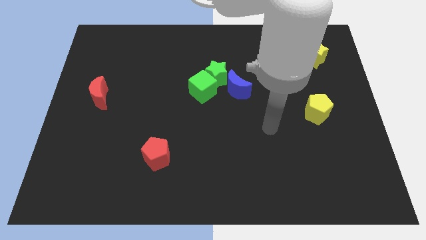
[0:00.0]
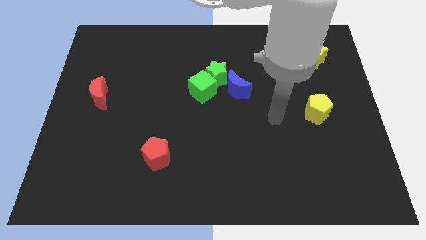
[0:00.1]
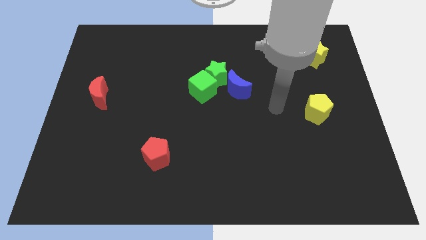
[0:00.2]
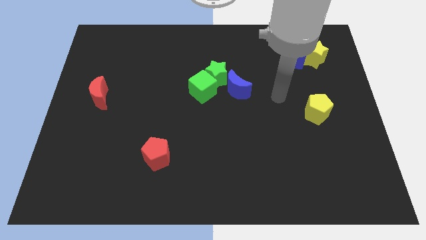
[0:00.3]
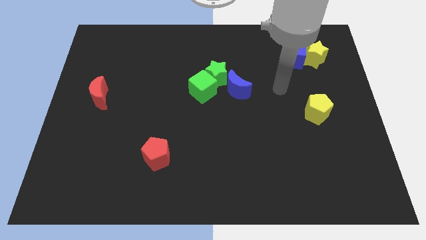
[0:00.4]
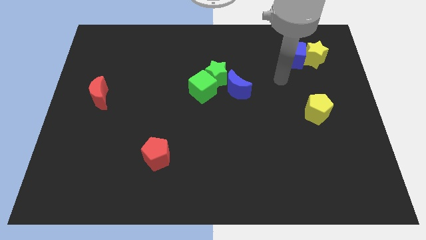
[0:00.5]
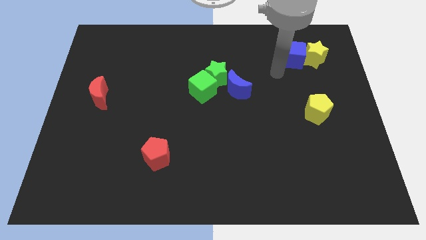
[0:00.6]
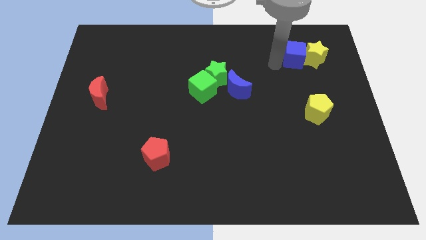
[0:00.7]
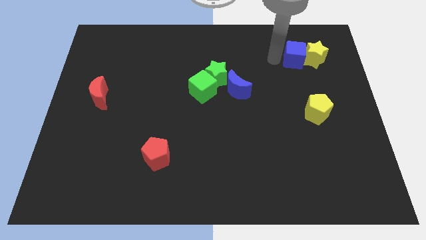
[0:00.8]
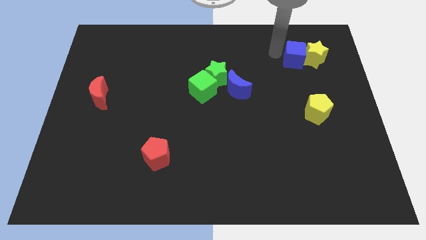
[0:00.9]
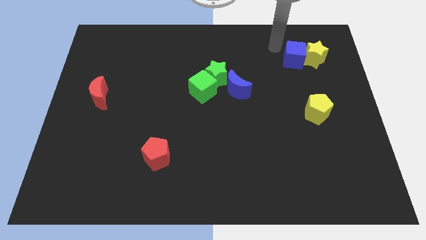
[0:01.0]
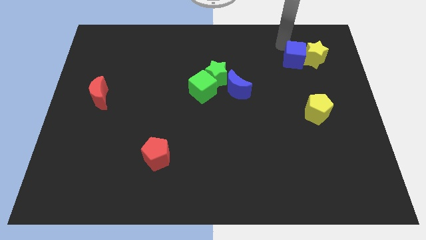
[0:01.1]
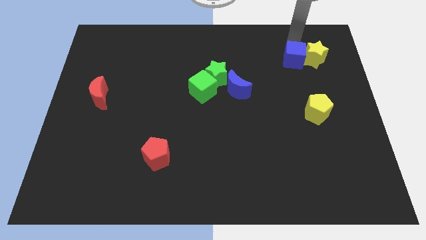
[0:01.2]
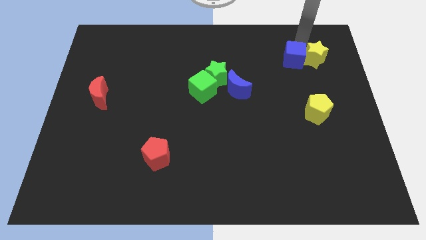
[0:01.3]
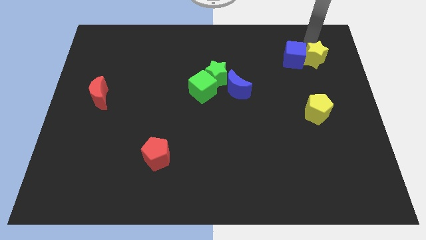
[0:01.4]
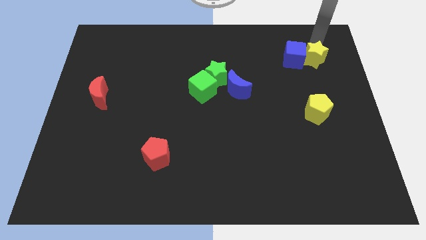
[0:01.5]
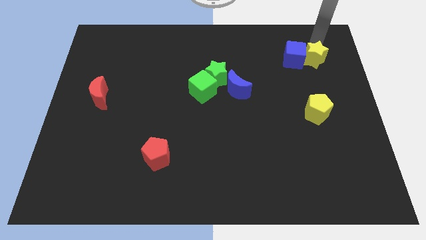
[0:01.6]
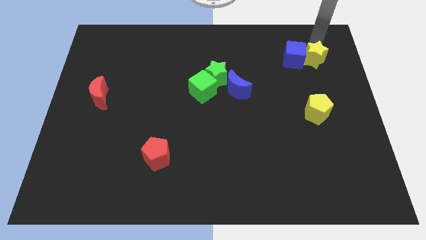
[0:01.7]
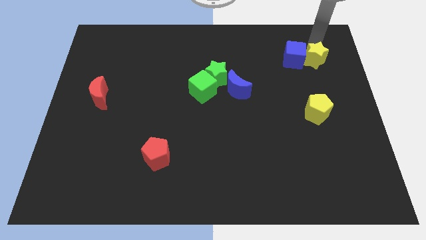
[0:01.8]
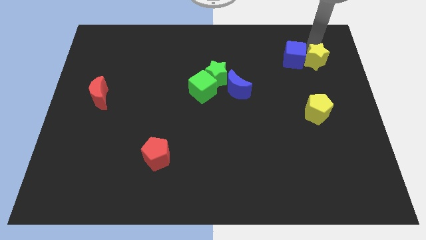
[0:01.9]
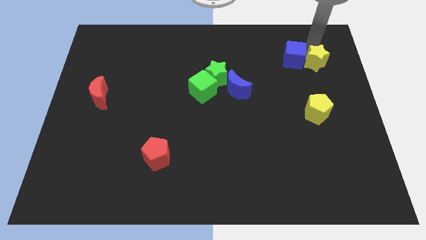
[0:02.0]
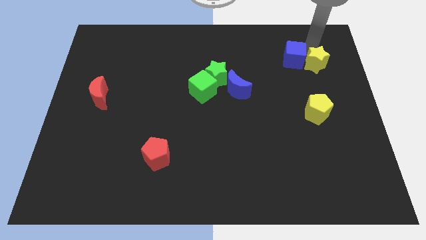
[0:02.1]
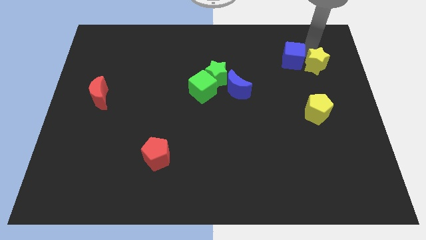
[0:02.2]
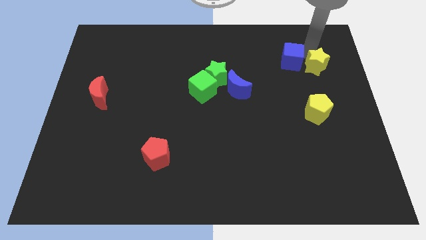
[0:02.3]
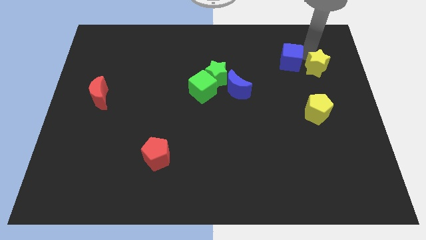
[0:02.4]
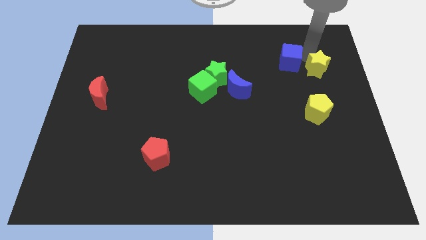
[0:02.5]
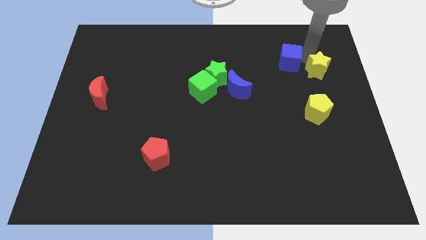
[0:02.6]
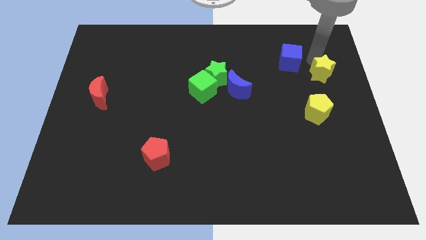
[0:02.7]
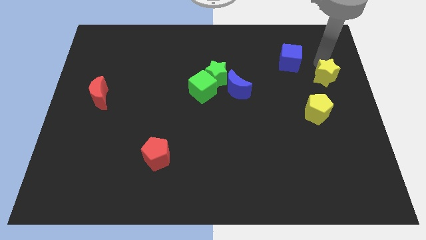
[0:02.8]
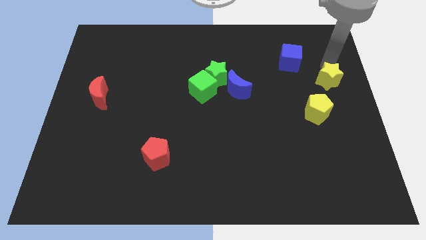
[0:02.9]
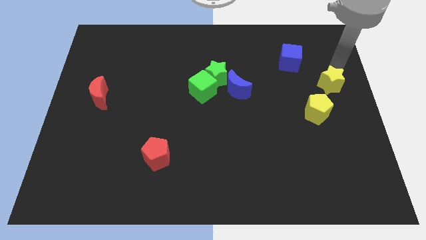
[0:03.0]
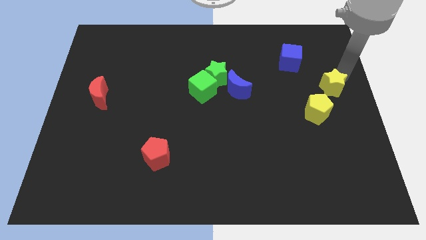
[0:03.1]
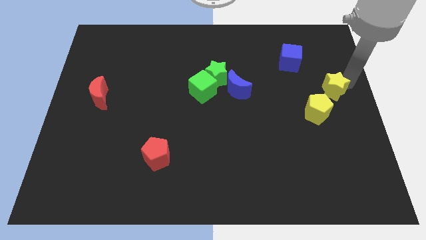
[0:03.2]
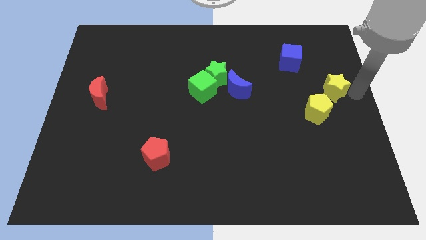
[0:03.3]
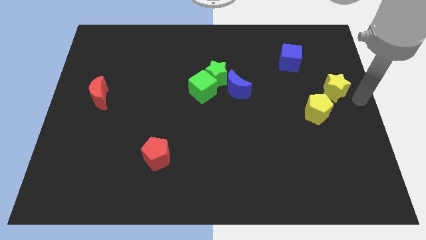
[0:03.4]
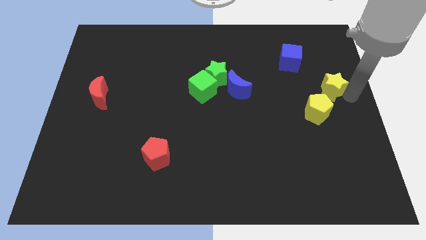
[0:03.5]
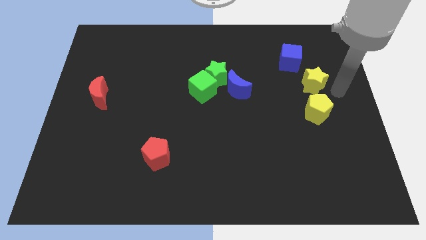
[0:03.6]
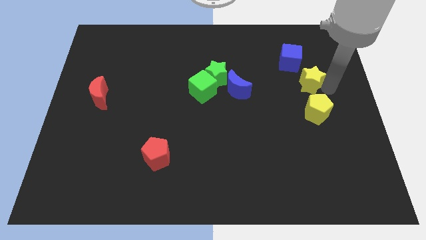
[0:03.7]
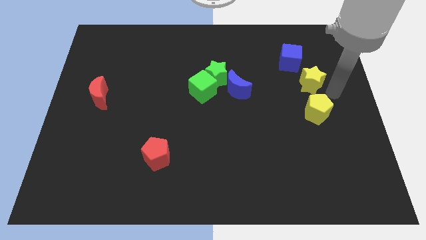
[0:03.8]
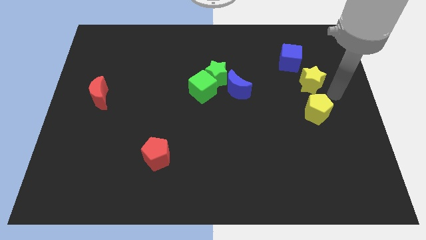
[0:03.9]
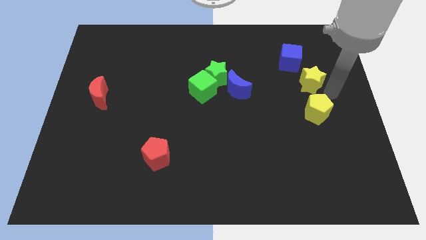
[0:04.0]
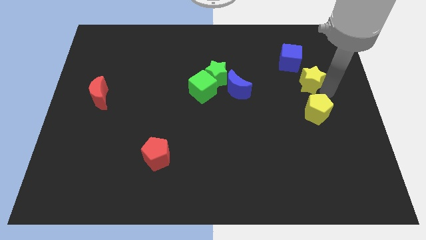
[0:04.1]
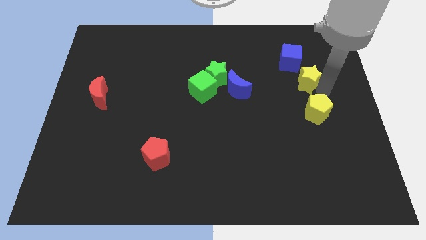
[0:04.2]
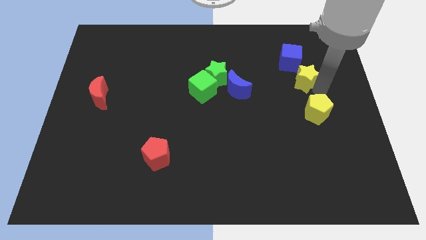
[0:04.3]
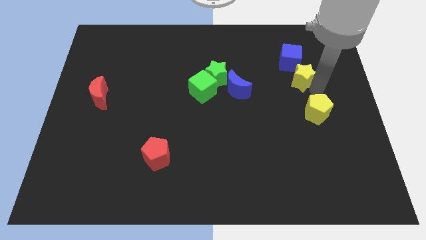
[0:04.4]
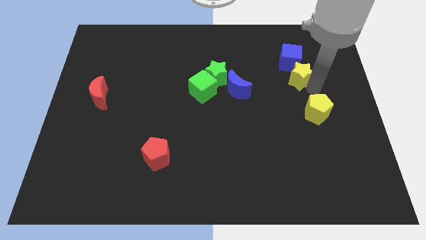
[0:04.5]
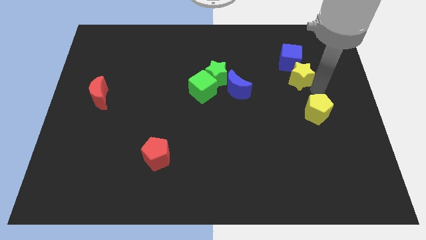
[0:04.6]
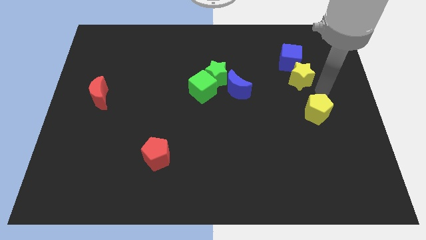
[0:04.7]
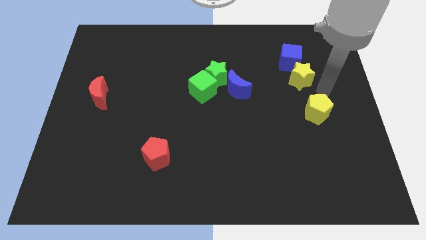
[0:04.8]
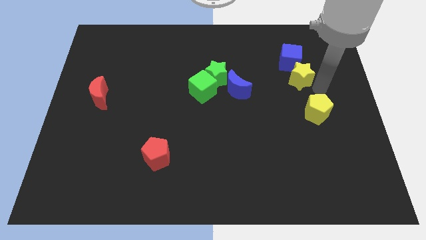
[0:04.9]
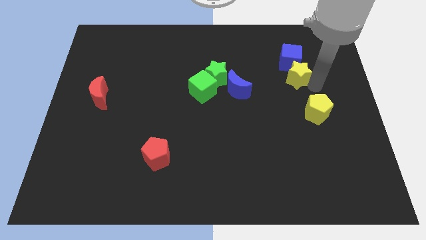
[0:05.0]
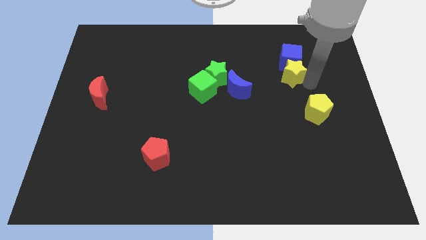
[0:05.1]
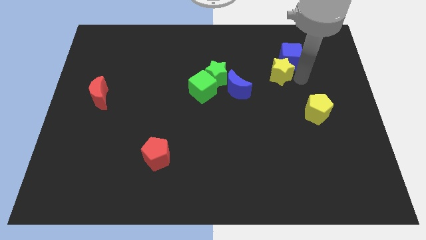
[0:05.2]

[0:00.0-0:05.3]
slightly move the yellow star to the left

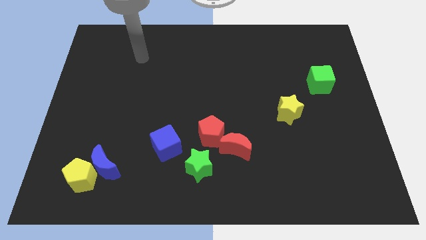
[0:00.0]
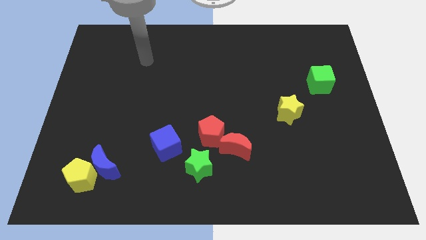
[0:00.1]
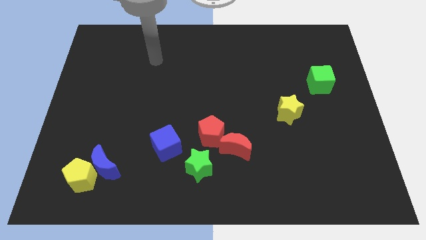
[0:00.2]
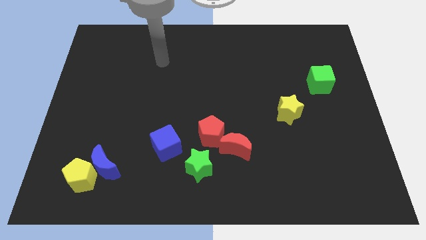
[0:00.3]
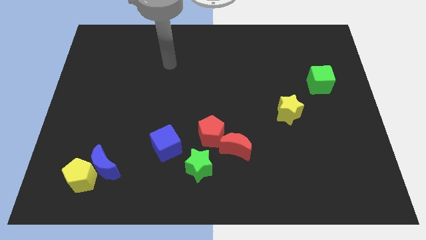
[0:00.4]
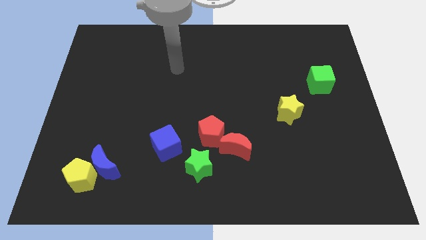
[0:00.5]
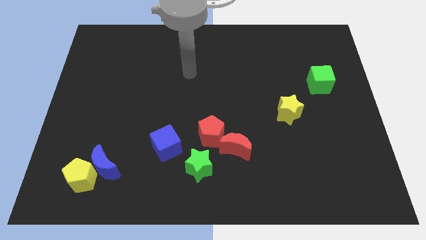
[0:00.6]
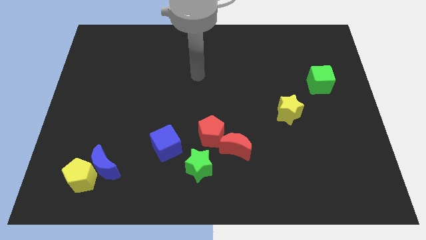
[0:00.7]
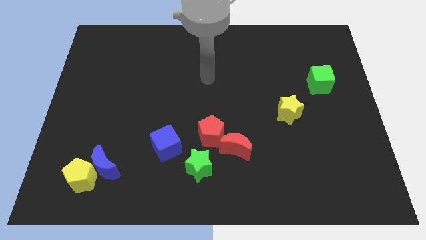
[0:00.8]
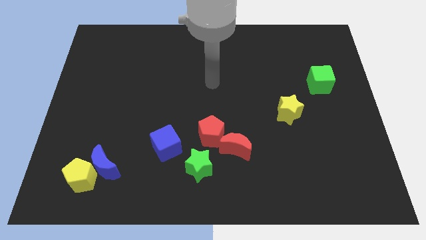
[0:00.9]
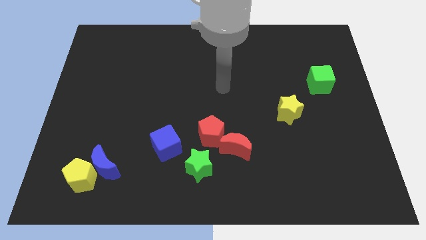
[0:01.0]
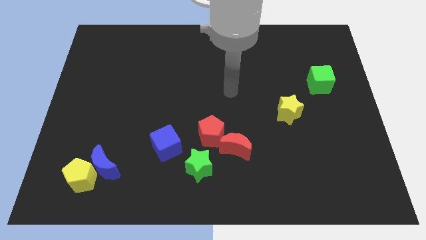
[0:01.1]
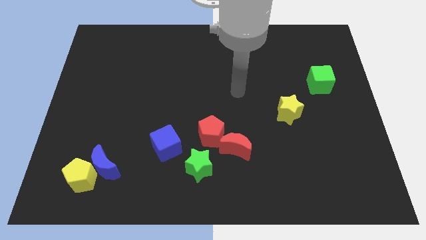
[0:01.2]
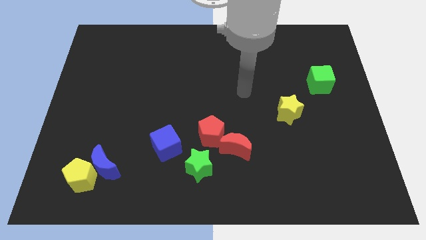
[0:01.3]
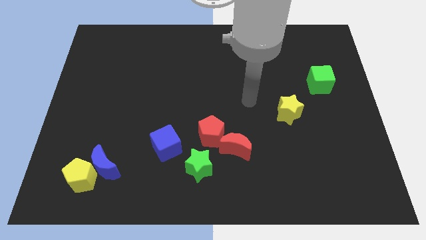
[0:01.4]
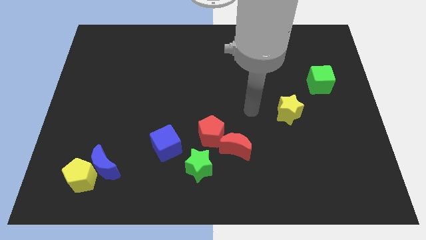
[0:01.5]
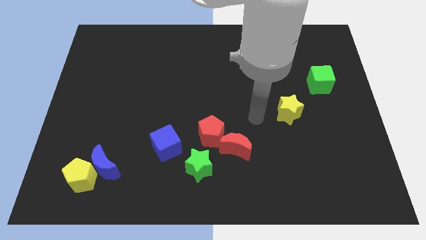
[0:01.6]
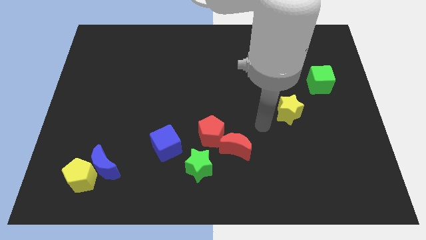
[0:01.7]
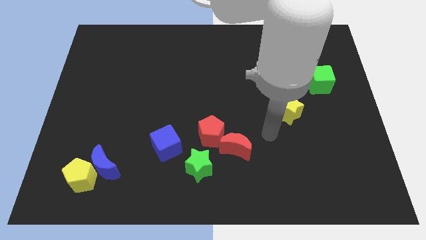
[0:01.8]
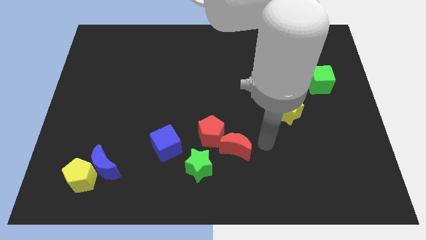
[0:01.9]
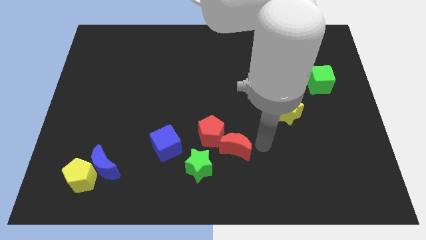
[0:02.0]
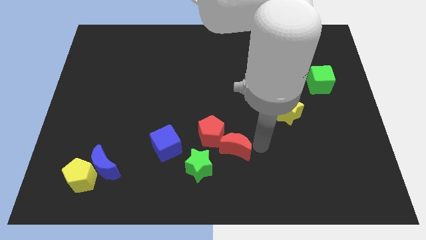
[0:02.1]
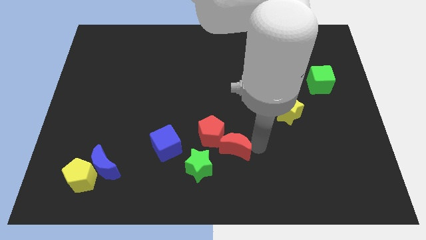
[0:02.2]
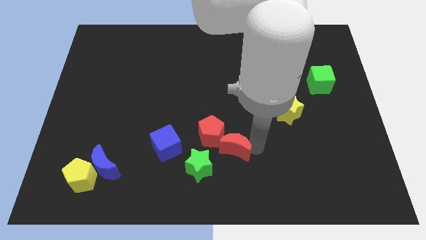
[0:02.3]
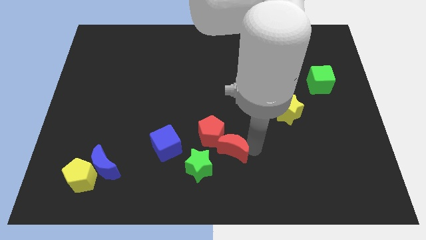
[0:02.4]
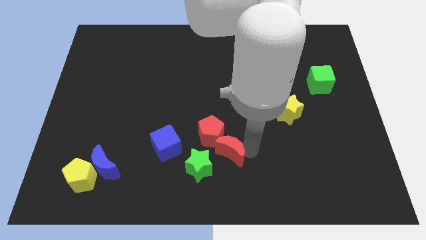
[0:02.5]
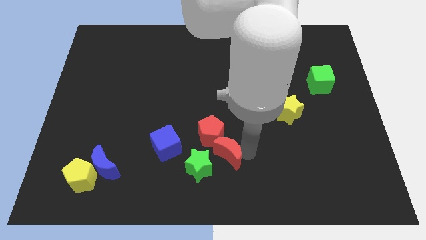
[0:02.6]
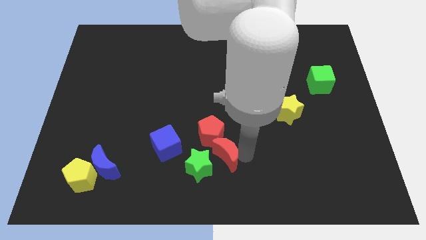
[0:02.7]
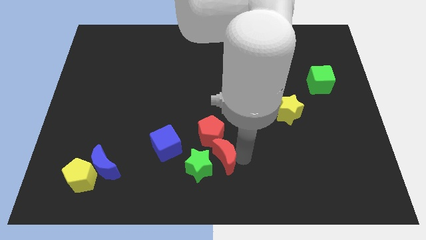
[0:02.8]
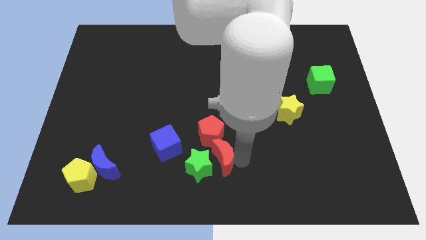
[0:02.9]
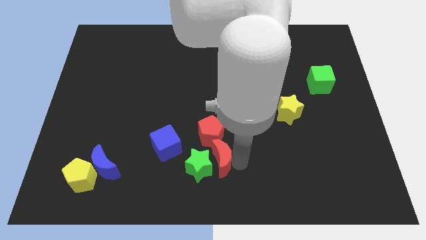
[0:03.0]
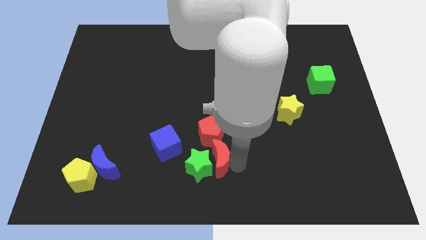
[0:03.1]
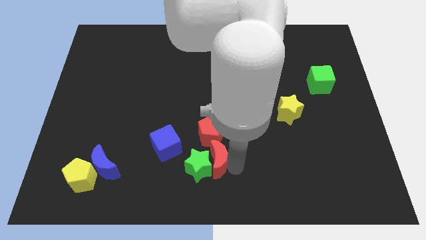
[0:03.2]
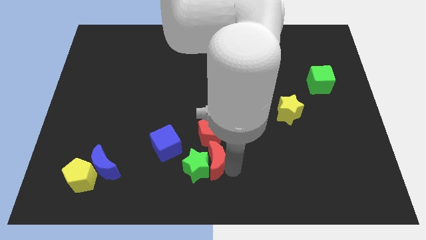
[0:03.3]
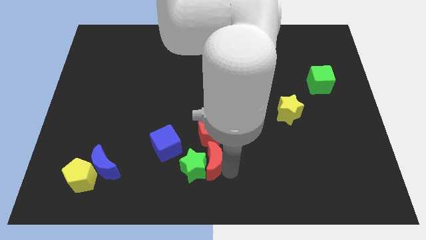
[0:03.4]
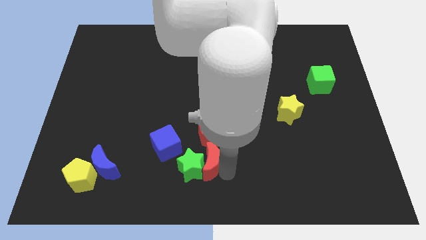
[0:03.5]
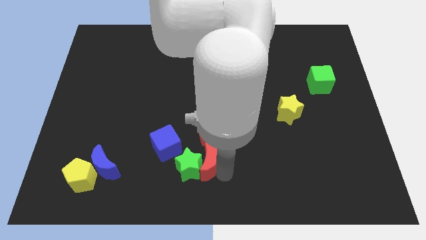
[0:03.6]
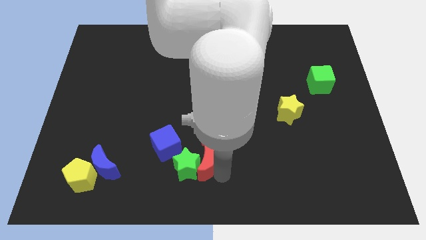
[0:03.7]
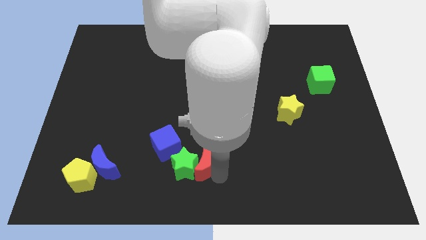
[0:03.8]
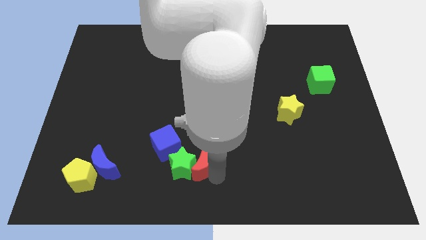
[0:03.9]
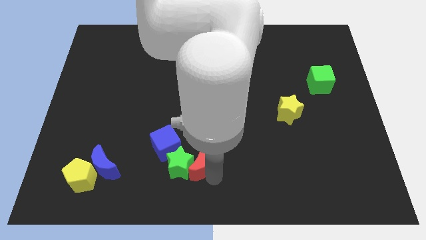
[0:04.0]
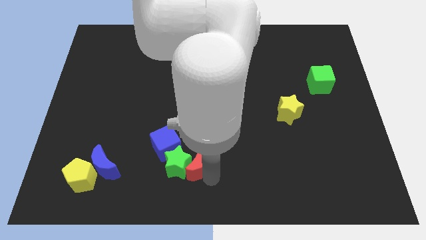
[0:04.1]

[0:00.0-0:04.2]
move the red moon a little bit to the left
